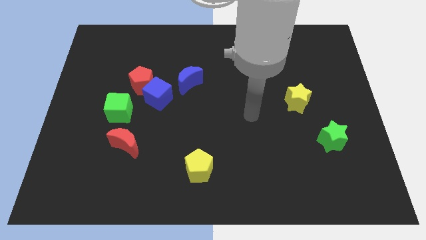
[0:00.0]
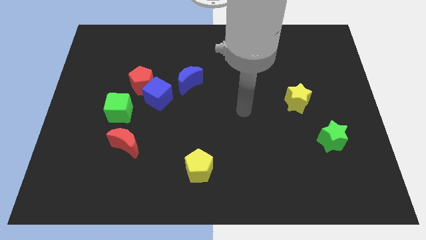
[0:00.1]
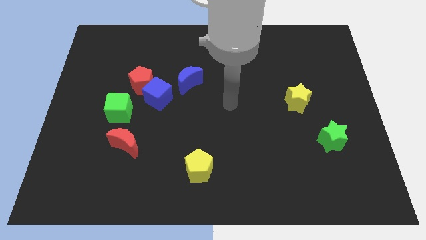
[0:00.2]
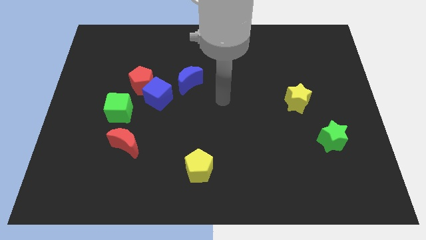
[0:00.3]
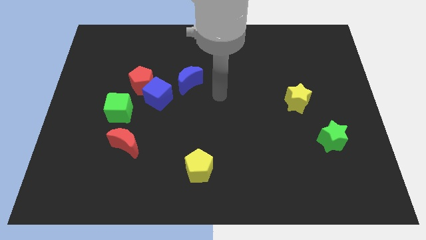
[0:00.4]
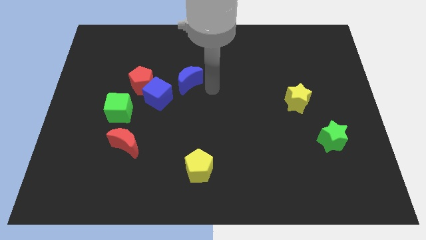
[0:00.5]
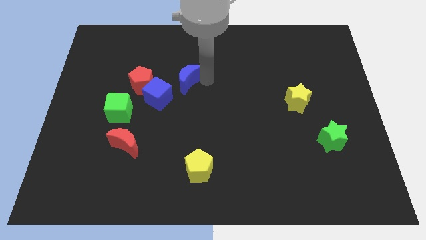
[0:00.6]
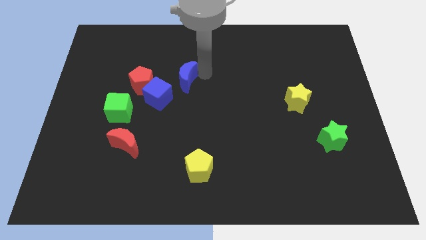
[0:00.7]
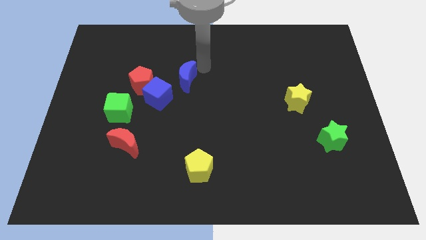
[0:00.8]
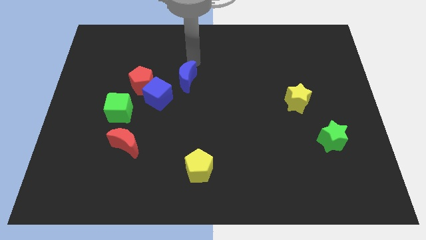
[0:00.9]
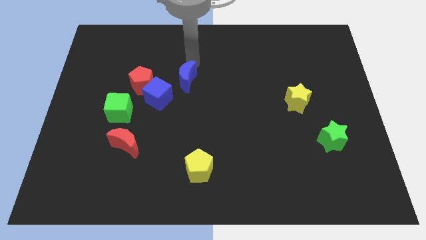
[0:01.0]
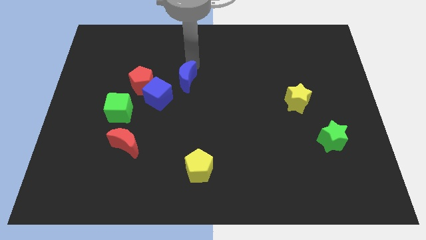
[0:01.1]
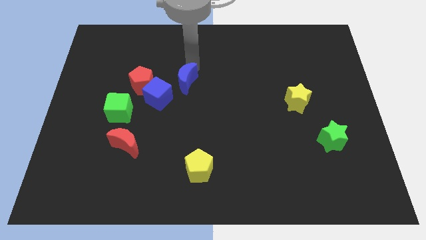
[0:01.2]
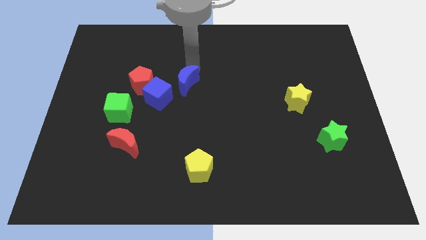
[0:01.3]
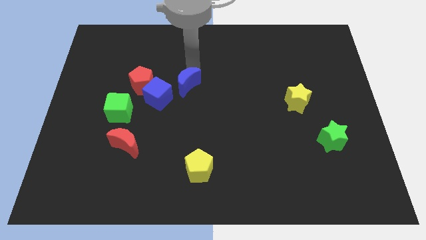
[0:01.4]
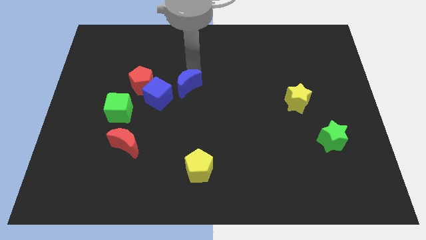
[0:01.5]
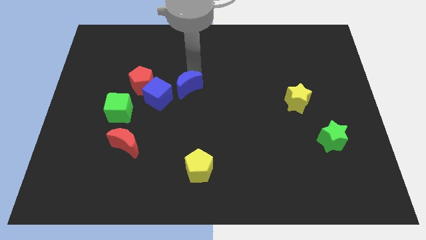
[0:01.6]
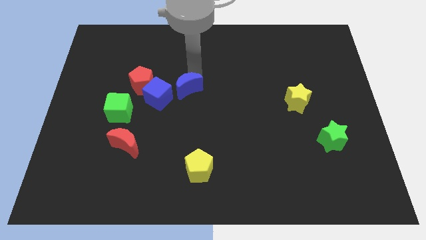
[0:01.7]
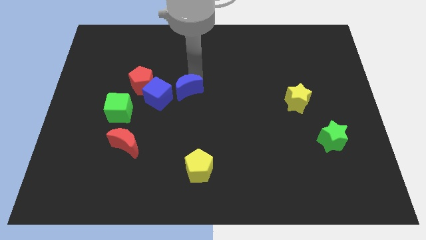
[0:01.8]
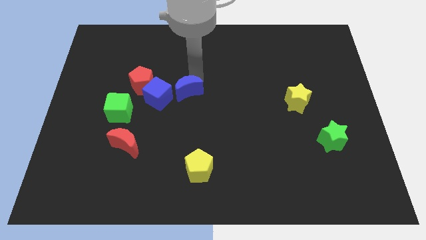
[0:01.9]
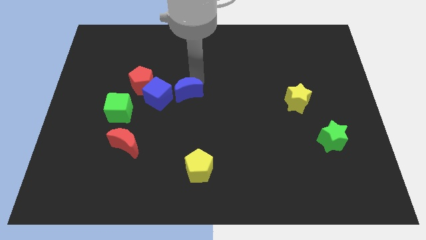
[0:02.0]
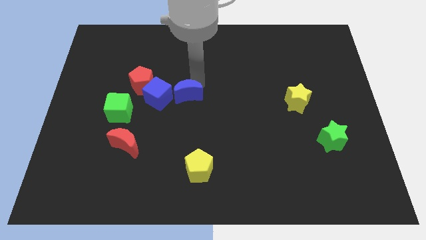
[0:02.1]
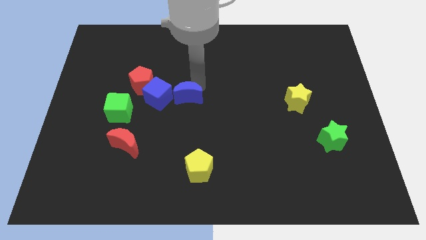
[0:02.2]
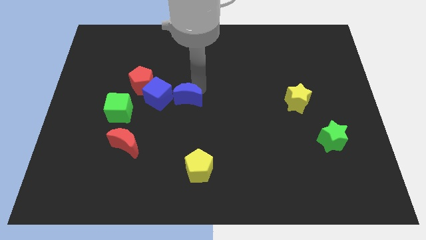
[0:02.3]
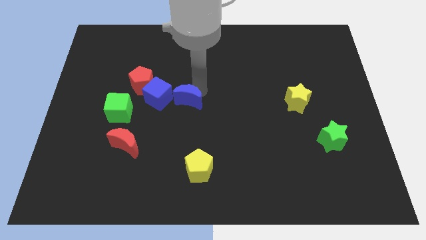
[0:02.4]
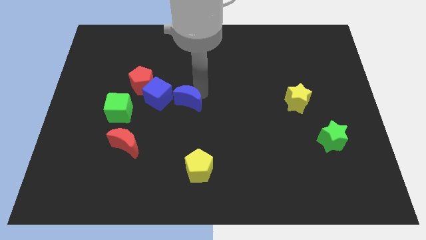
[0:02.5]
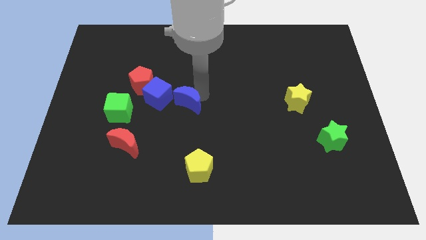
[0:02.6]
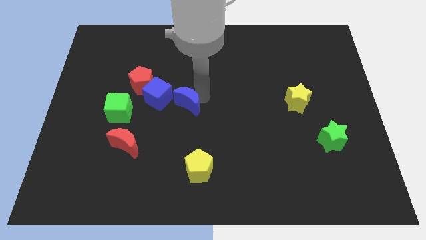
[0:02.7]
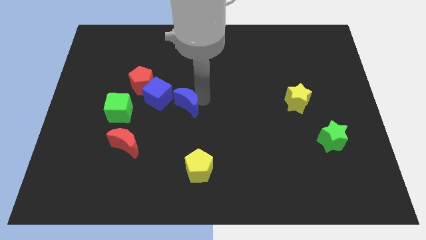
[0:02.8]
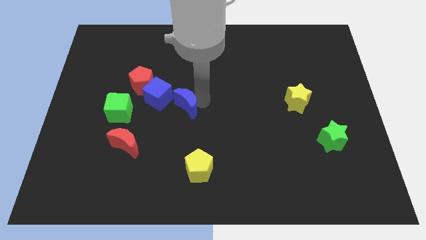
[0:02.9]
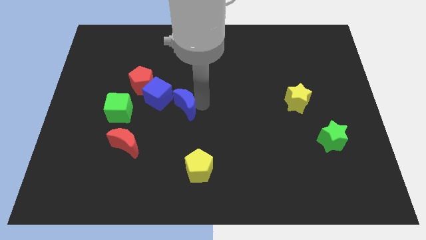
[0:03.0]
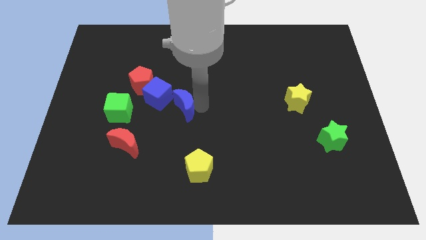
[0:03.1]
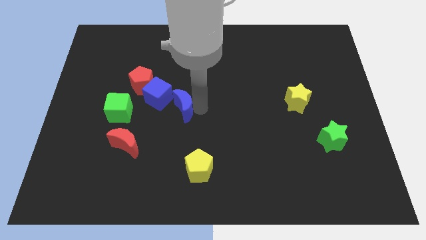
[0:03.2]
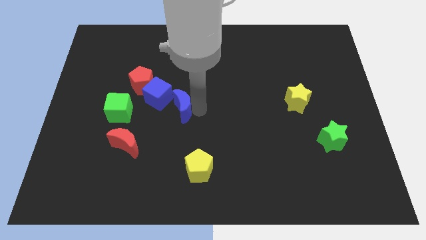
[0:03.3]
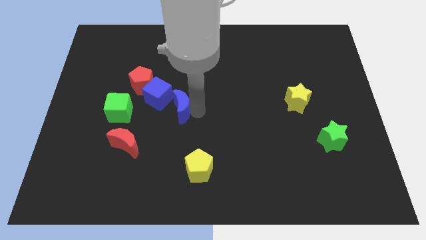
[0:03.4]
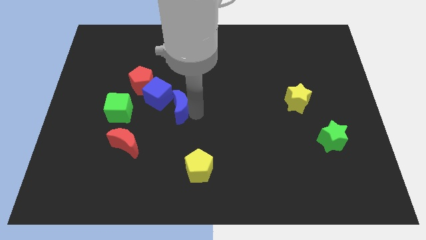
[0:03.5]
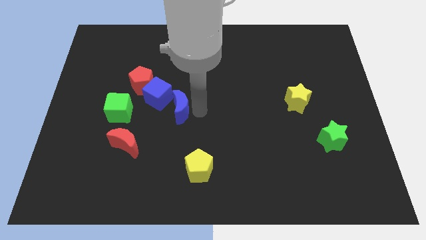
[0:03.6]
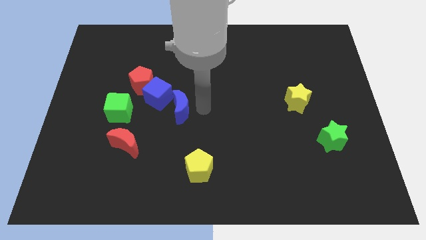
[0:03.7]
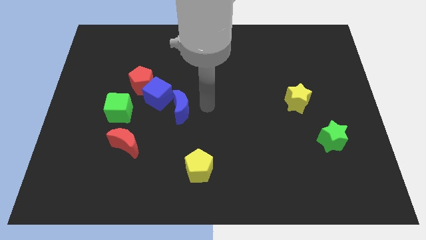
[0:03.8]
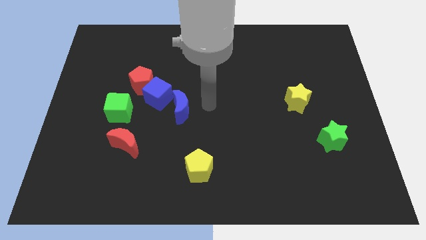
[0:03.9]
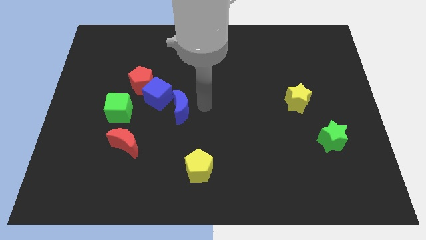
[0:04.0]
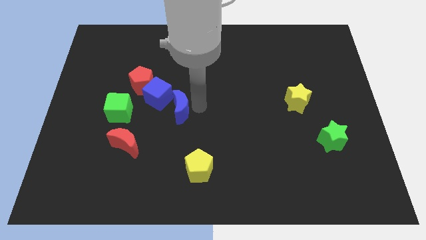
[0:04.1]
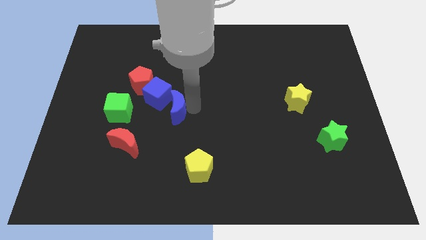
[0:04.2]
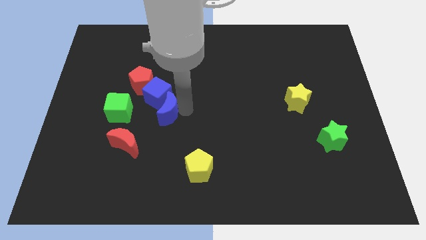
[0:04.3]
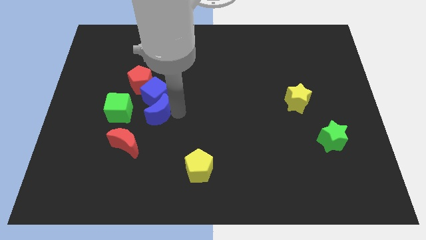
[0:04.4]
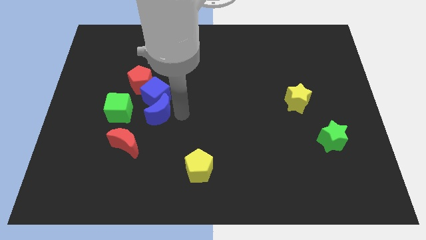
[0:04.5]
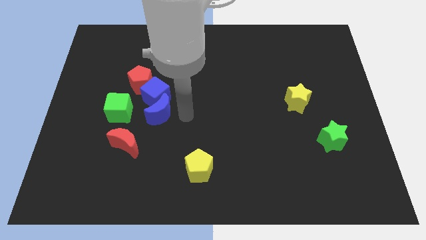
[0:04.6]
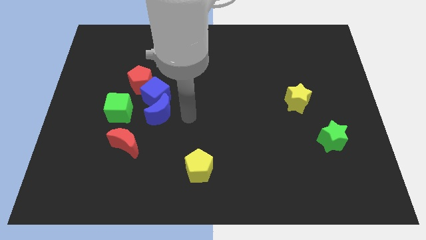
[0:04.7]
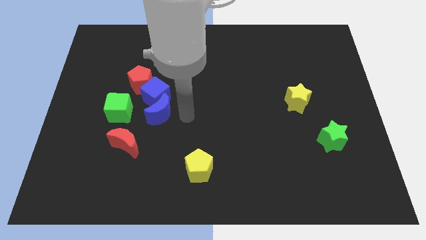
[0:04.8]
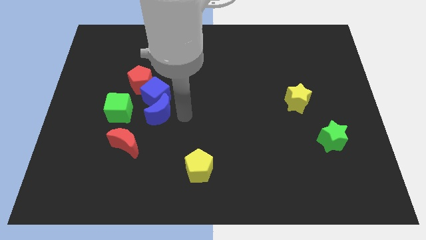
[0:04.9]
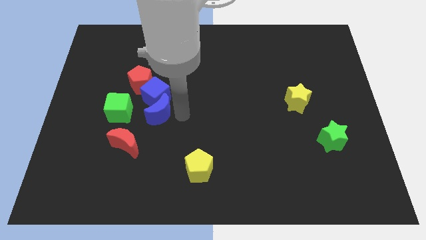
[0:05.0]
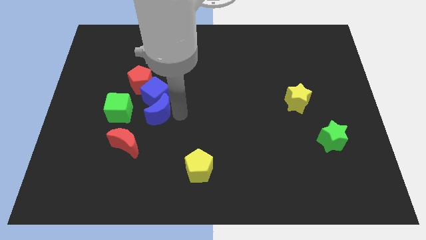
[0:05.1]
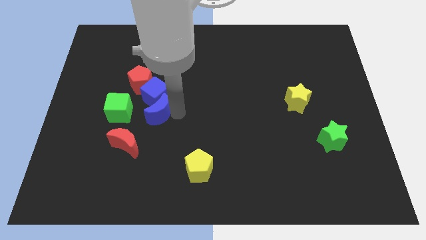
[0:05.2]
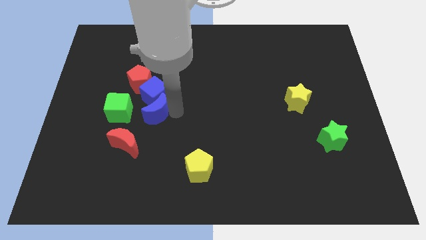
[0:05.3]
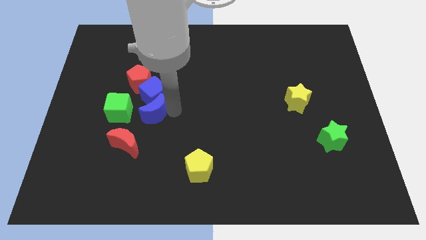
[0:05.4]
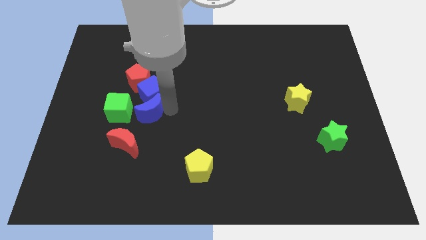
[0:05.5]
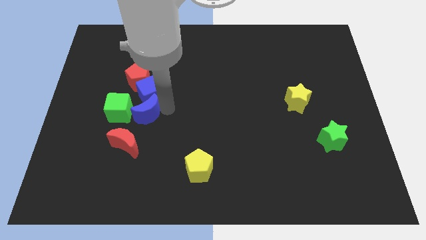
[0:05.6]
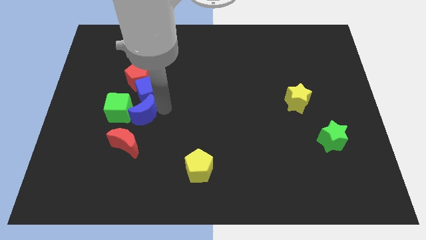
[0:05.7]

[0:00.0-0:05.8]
move the blue moon to the green cube
